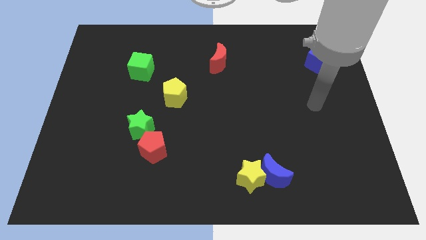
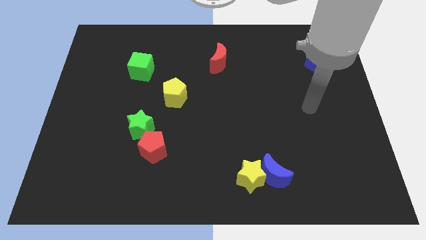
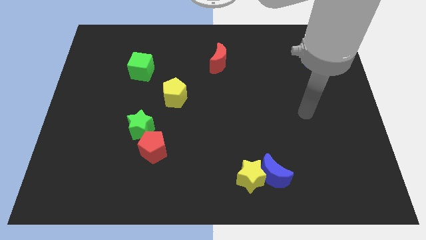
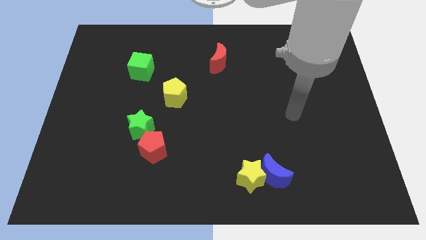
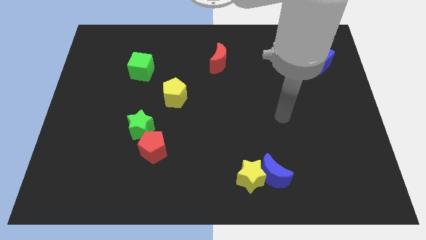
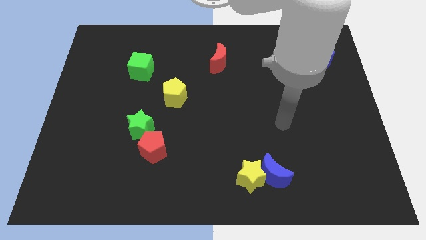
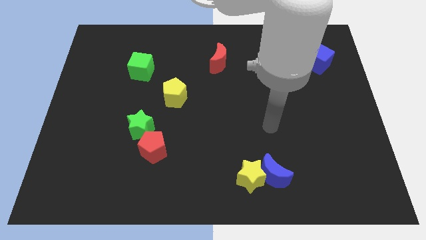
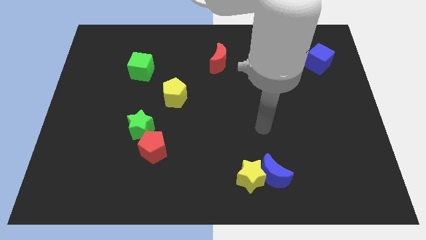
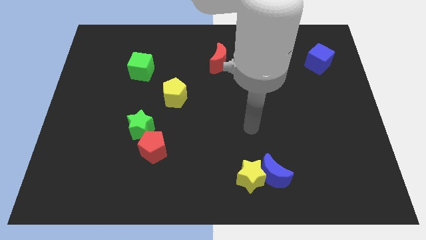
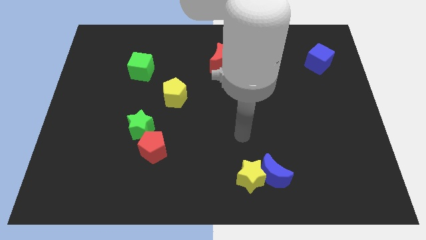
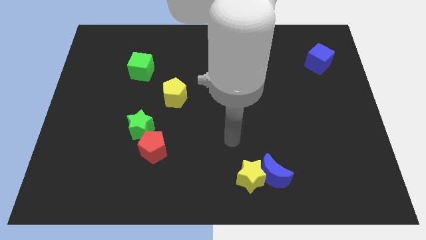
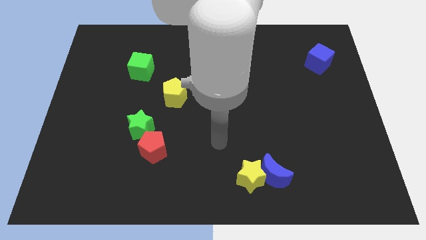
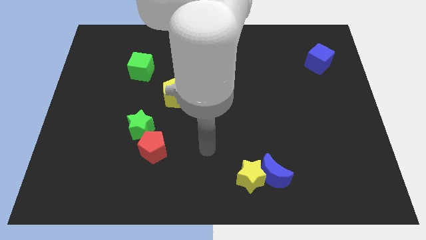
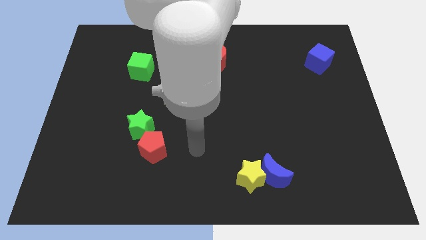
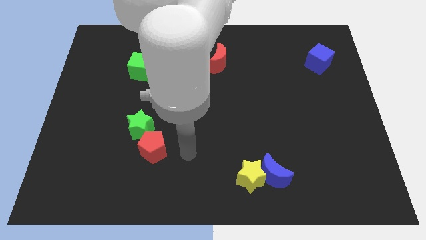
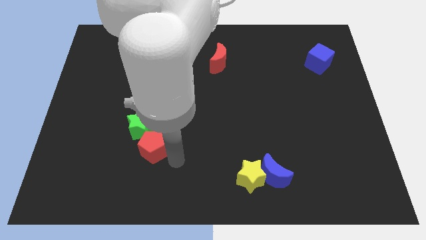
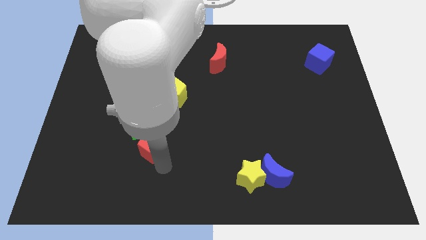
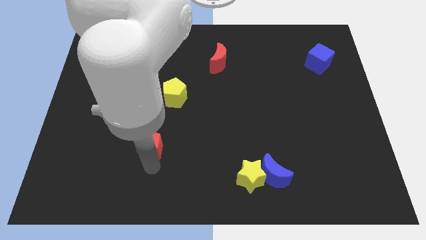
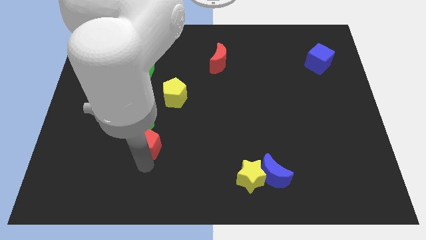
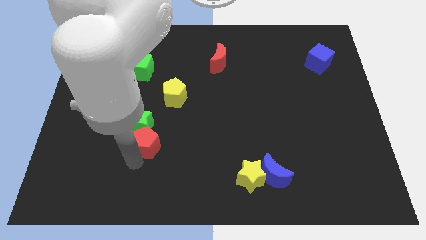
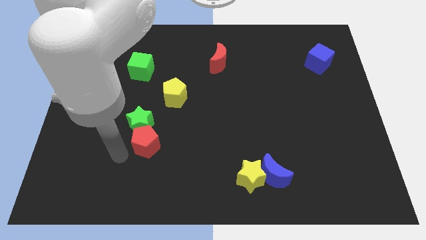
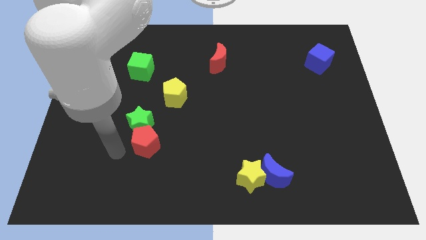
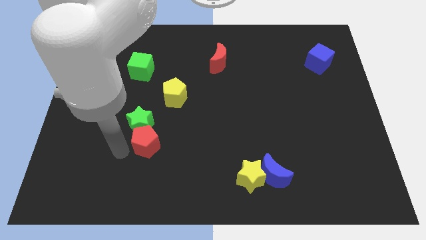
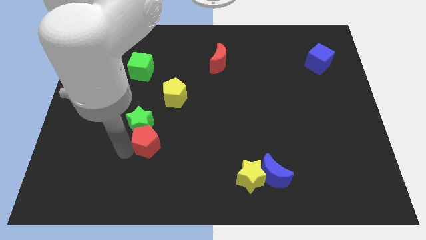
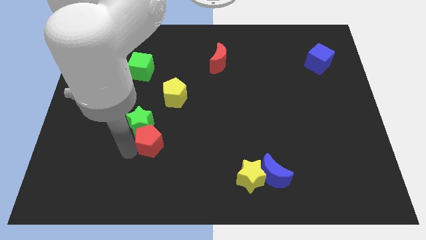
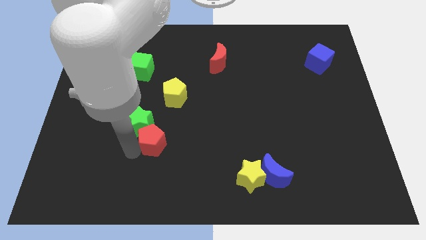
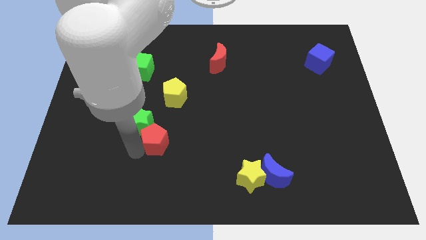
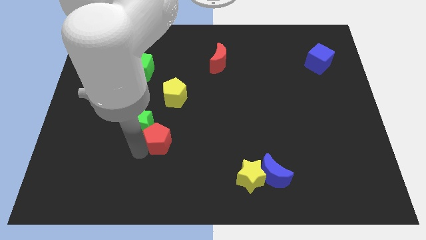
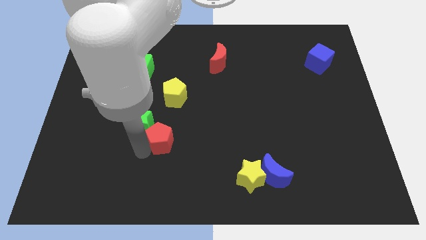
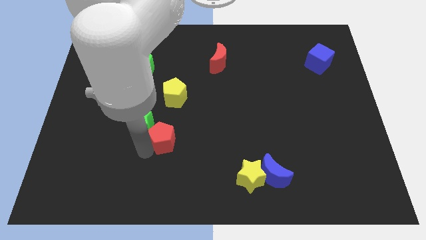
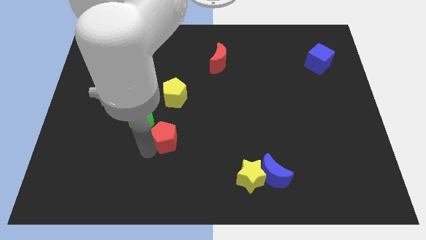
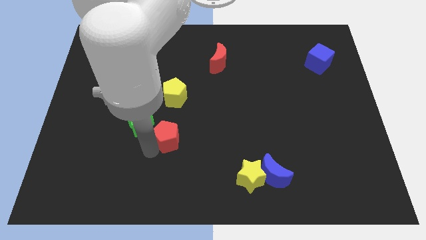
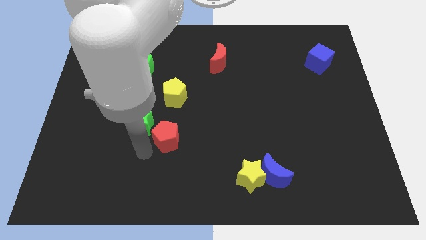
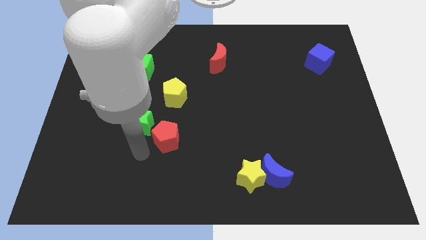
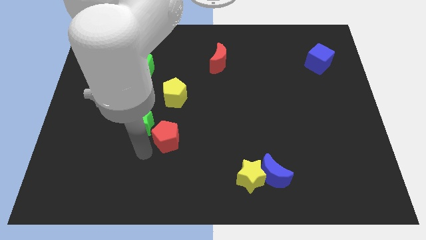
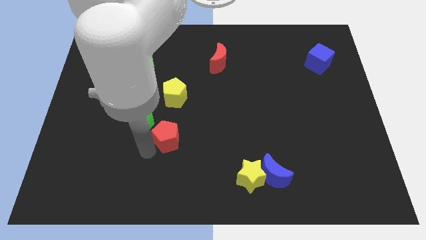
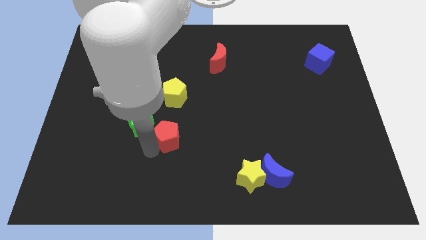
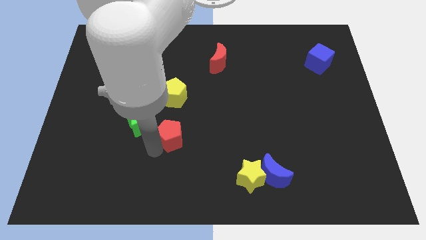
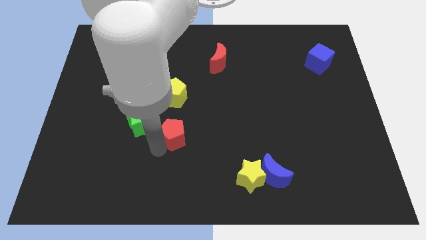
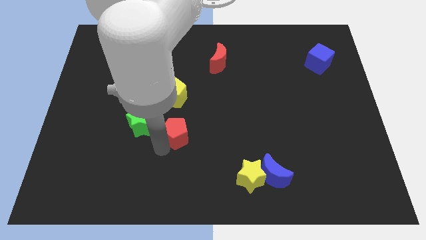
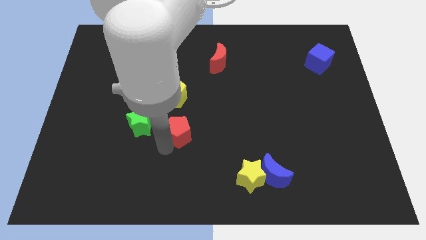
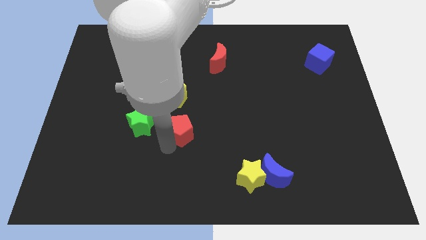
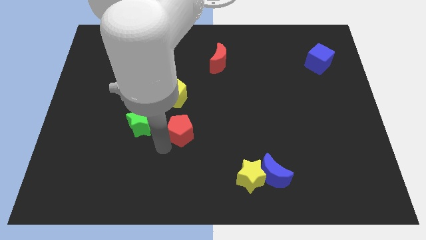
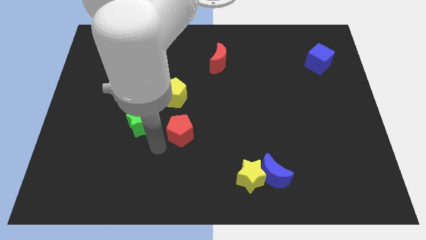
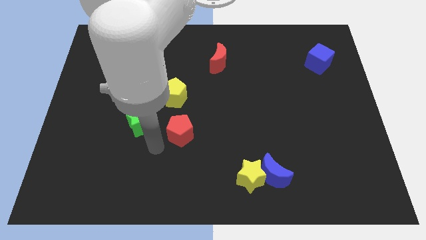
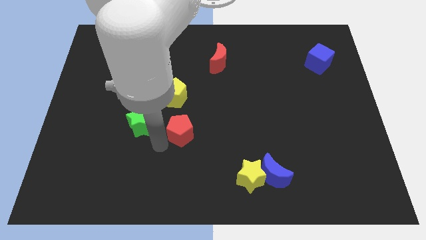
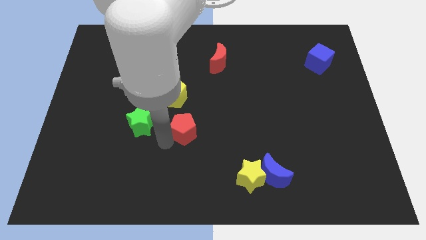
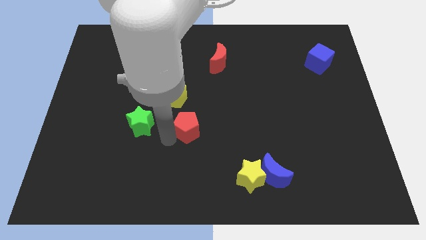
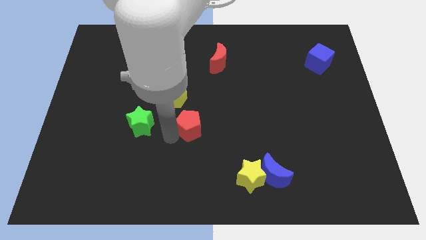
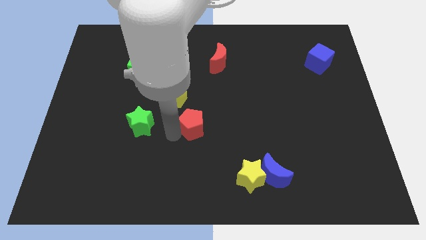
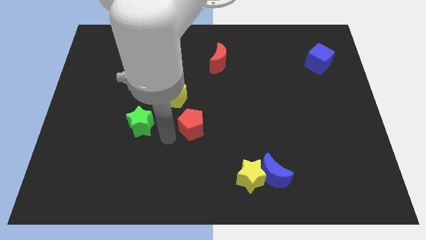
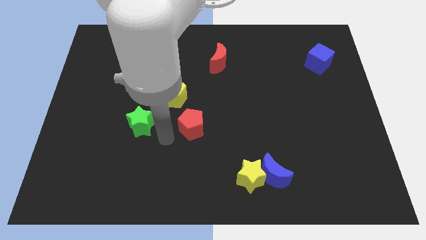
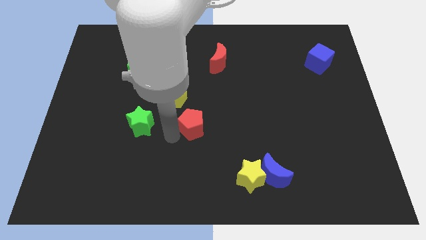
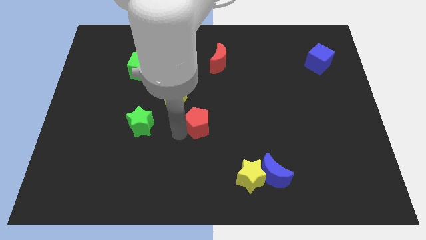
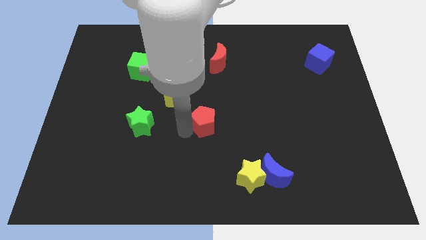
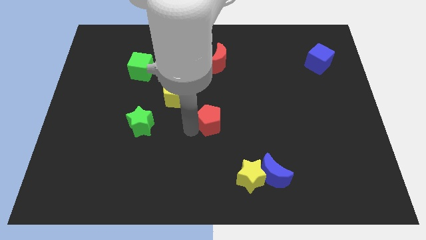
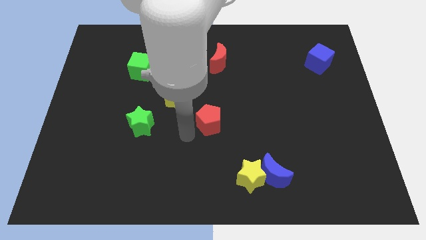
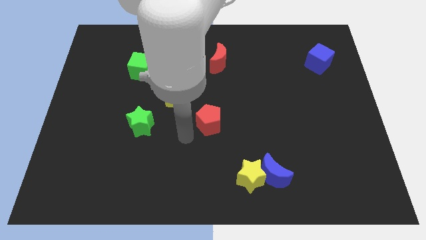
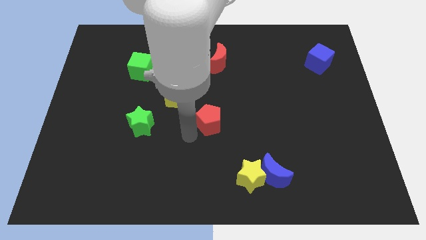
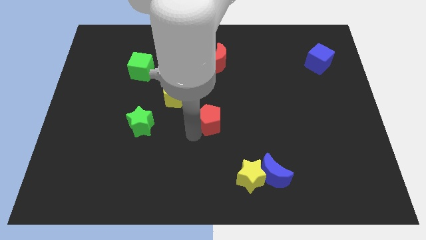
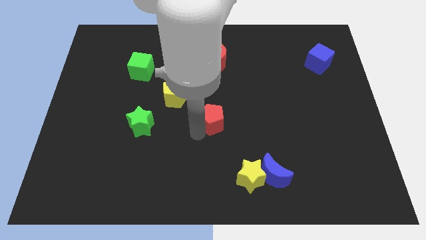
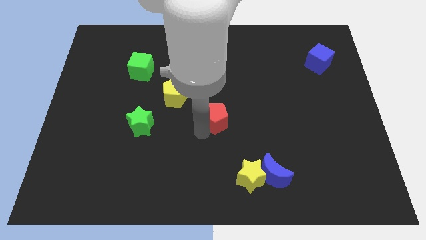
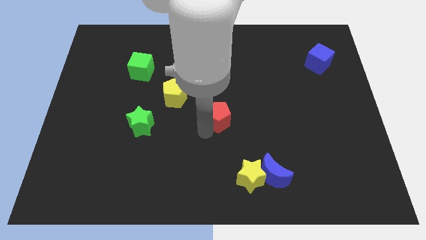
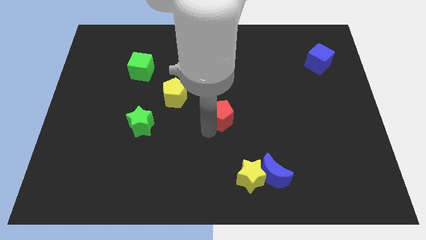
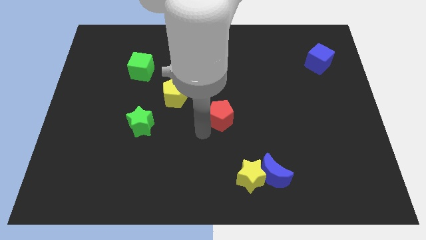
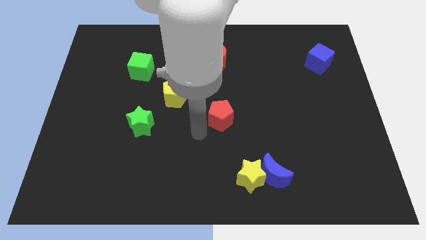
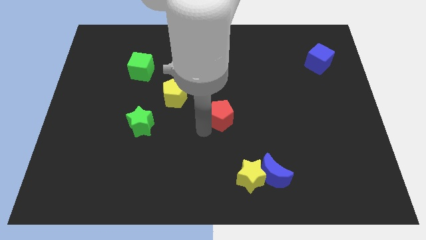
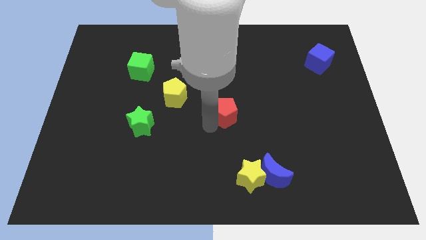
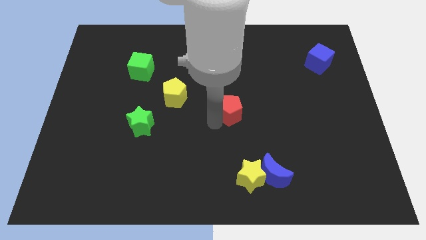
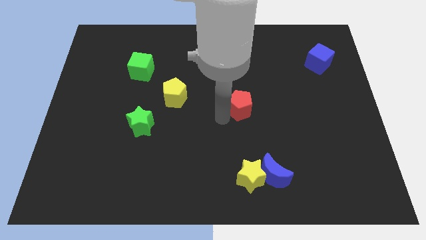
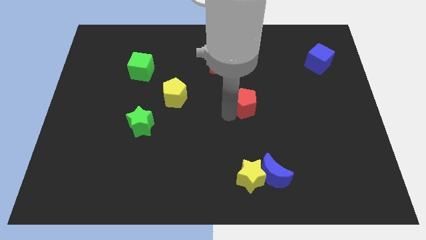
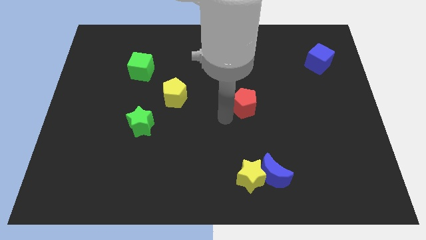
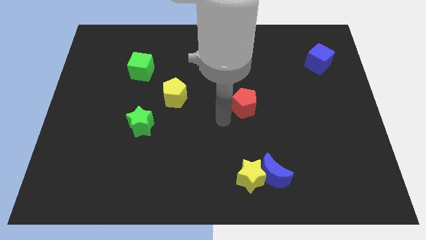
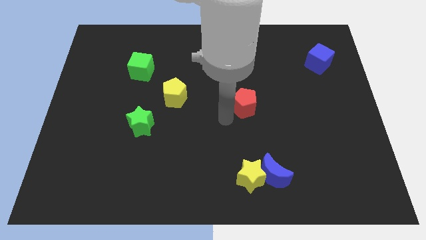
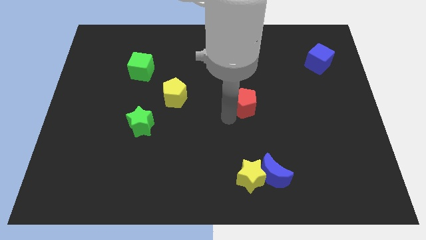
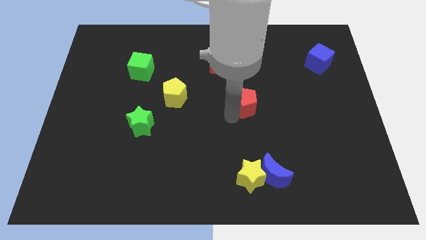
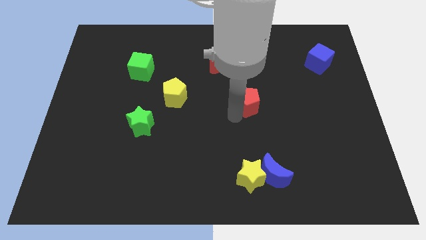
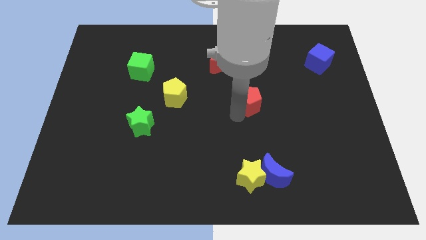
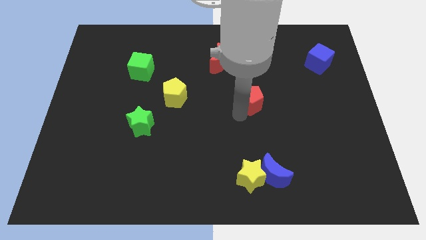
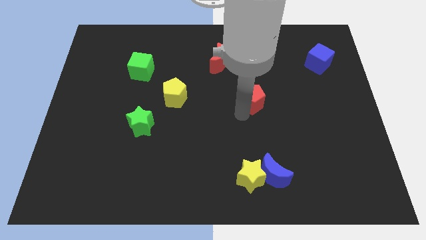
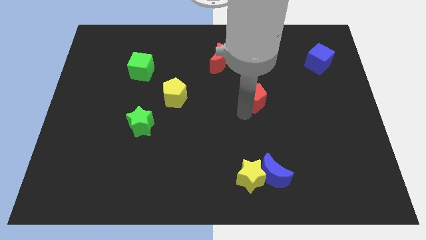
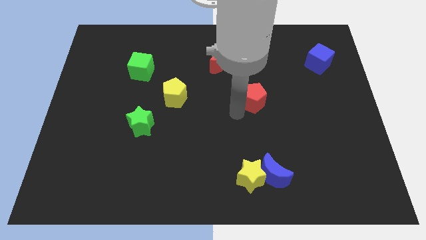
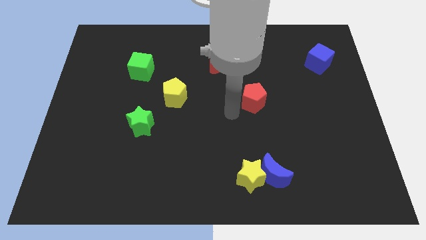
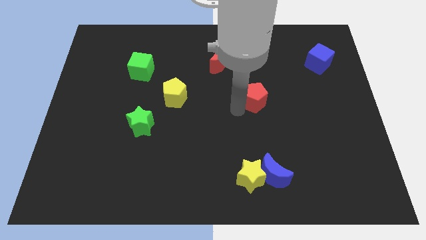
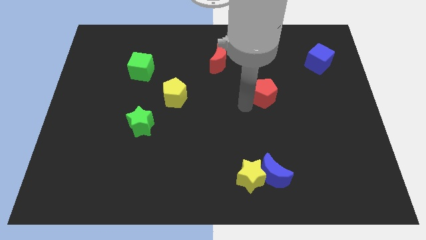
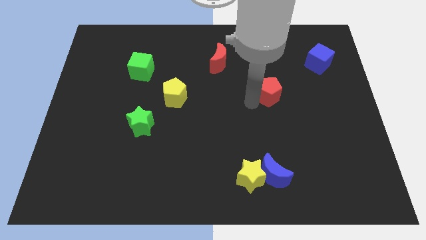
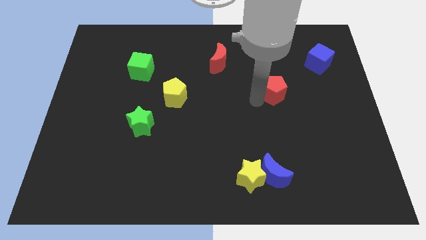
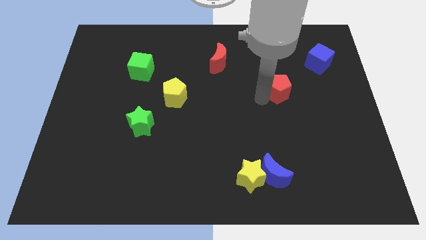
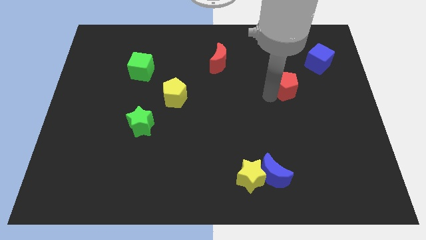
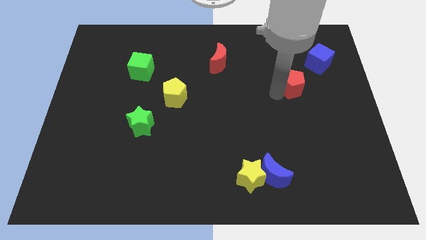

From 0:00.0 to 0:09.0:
push the red pentagon diagonally down and to the left of the blue cube
